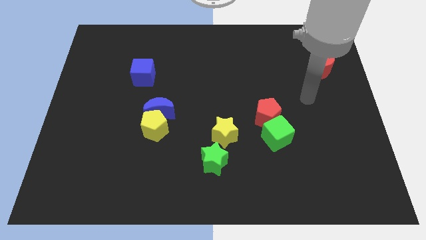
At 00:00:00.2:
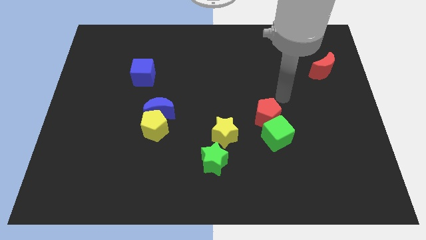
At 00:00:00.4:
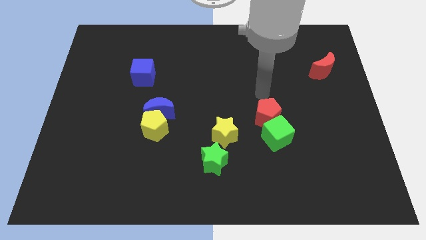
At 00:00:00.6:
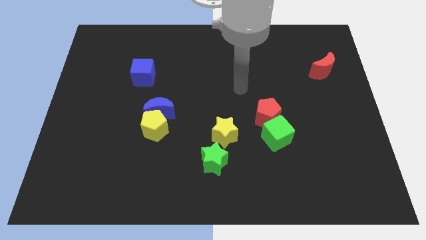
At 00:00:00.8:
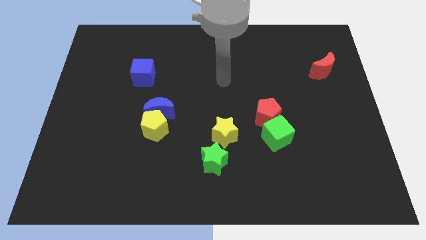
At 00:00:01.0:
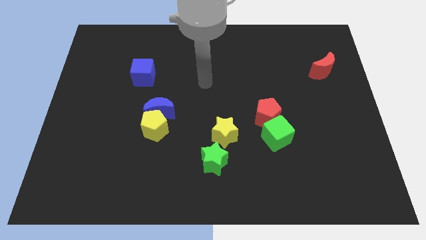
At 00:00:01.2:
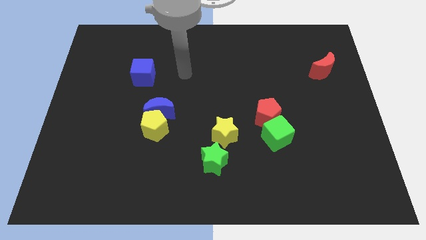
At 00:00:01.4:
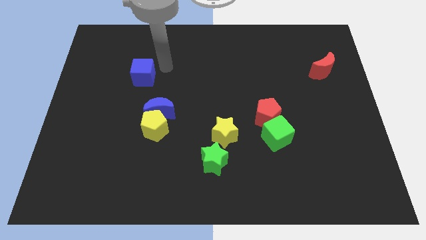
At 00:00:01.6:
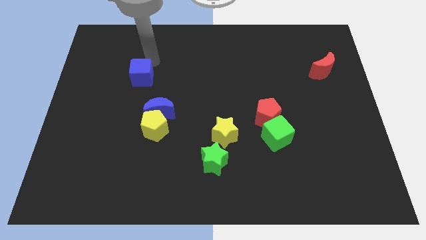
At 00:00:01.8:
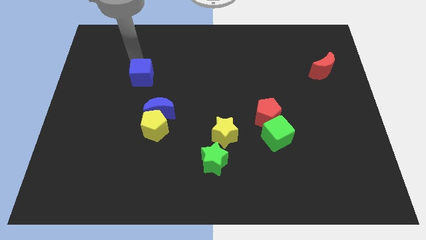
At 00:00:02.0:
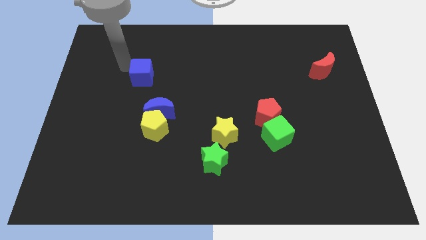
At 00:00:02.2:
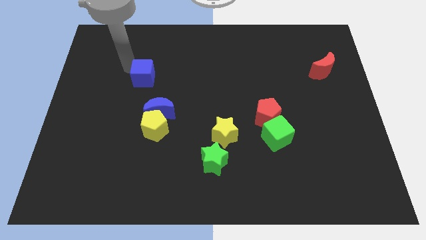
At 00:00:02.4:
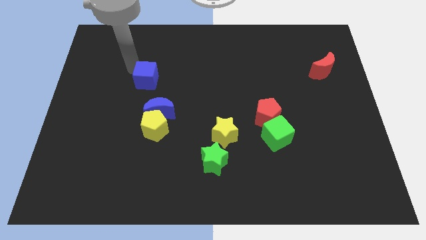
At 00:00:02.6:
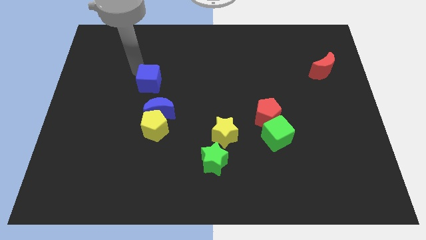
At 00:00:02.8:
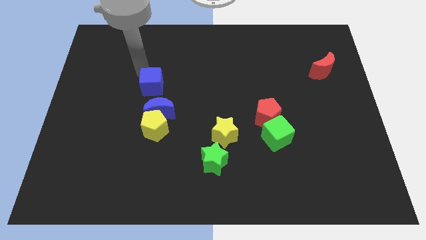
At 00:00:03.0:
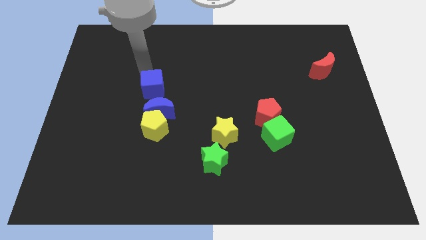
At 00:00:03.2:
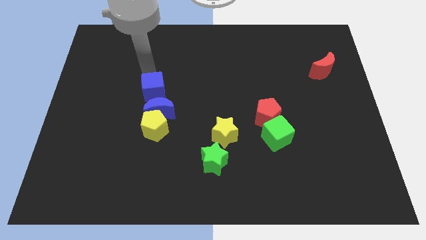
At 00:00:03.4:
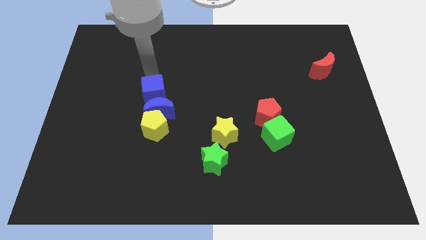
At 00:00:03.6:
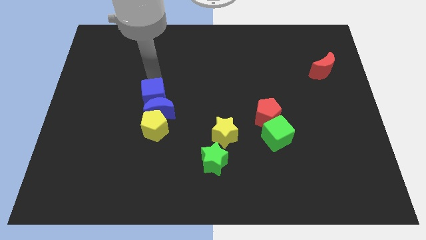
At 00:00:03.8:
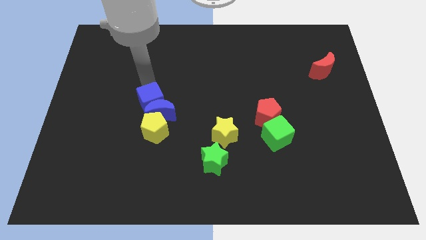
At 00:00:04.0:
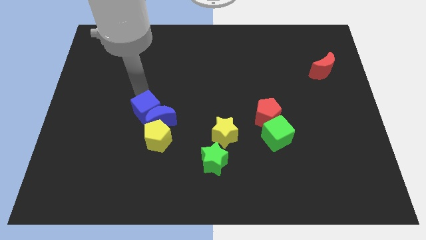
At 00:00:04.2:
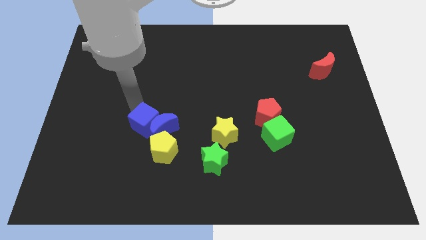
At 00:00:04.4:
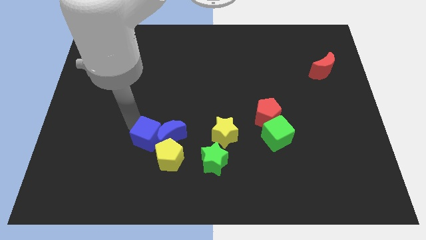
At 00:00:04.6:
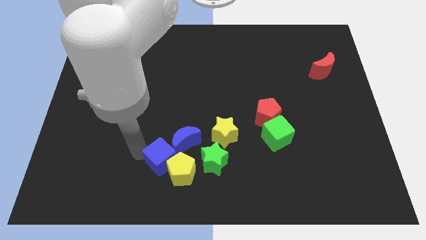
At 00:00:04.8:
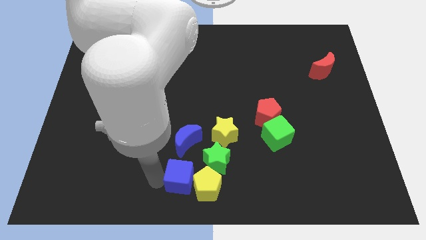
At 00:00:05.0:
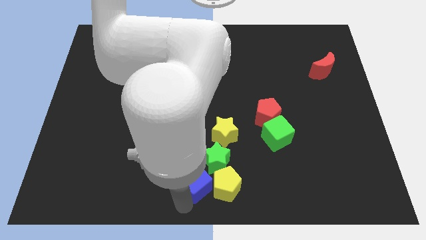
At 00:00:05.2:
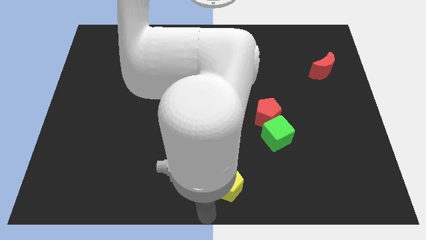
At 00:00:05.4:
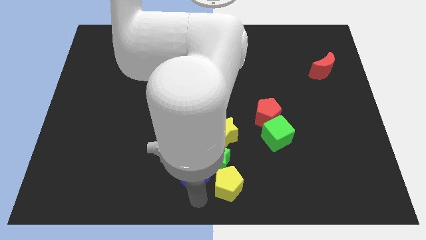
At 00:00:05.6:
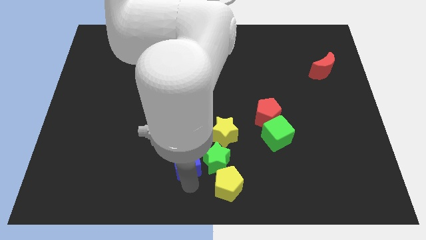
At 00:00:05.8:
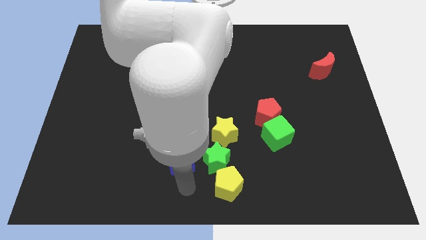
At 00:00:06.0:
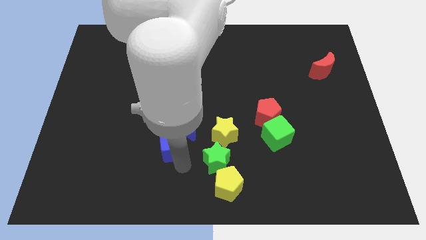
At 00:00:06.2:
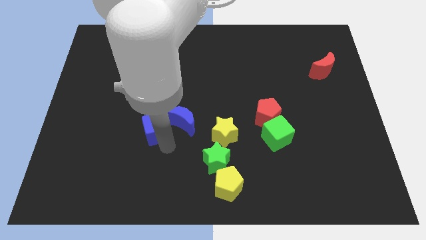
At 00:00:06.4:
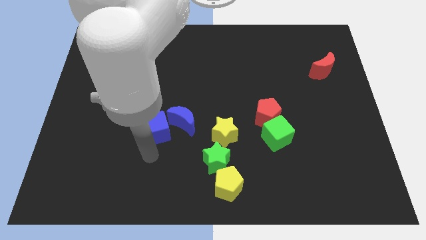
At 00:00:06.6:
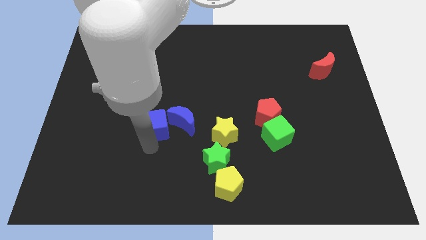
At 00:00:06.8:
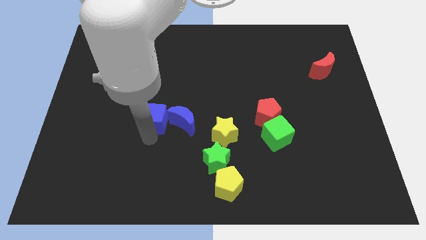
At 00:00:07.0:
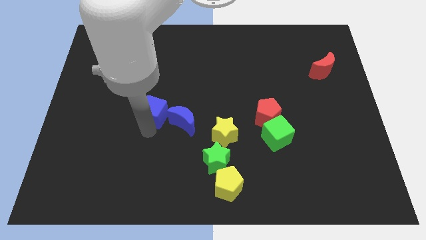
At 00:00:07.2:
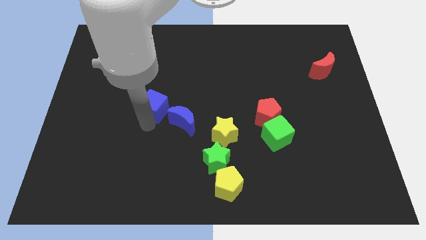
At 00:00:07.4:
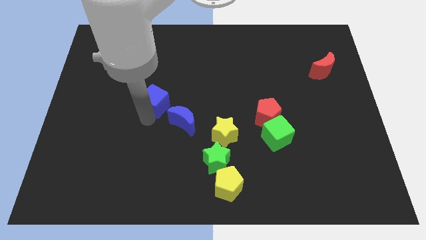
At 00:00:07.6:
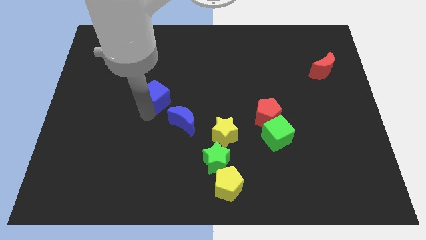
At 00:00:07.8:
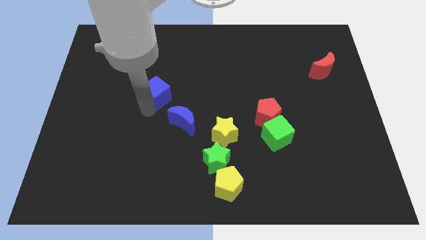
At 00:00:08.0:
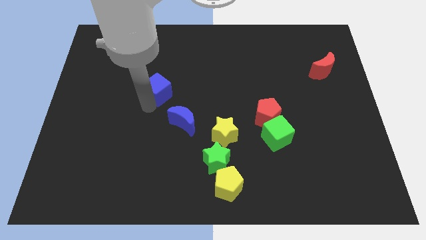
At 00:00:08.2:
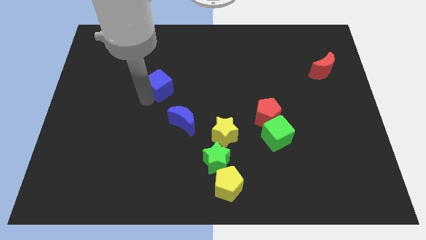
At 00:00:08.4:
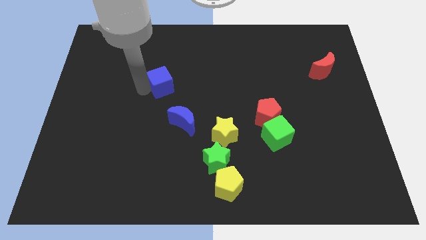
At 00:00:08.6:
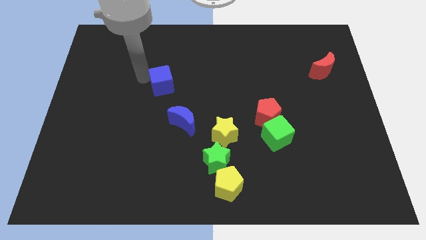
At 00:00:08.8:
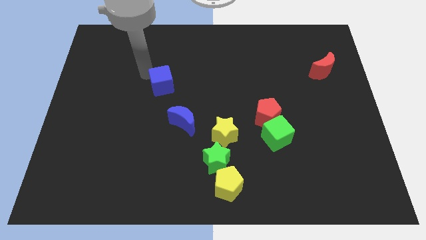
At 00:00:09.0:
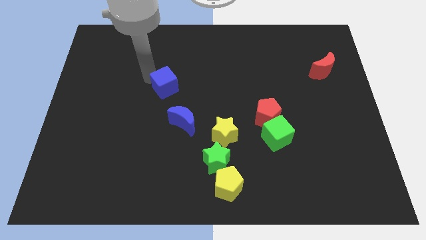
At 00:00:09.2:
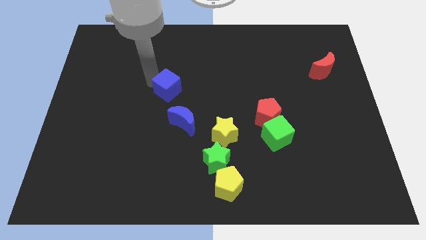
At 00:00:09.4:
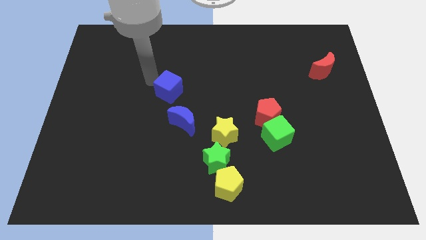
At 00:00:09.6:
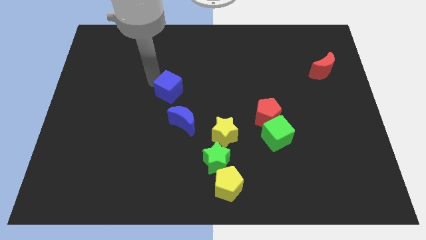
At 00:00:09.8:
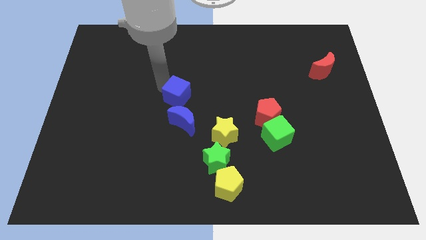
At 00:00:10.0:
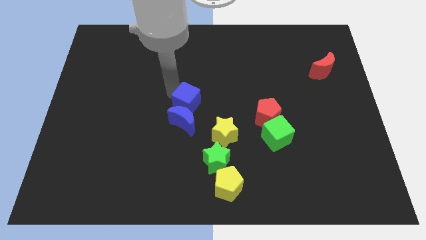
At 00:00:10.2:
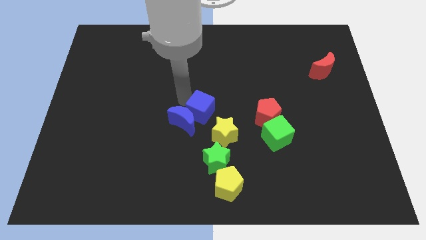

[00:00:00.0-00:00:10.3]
push the blue cube to the top side of the green star

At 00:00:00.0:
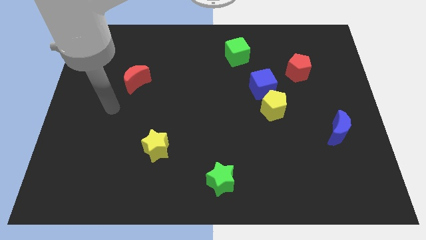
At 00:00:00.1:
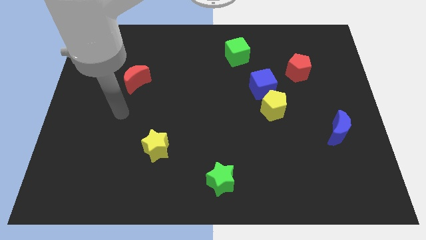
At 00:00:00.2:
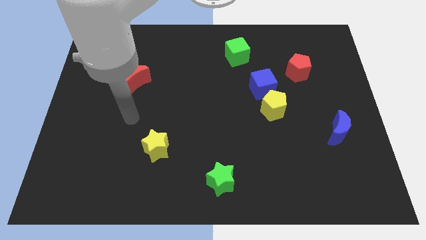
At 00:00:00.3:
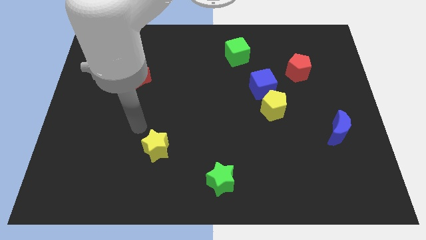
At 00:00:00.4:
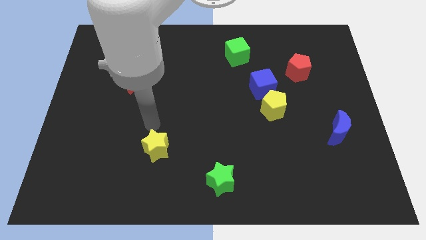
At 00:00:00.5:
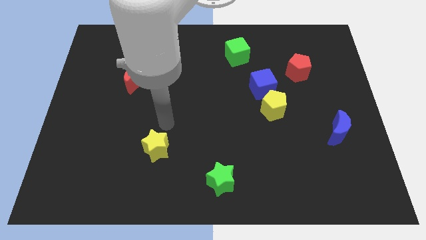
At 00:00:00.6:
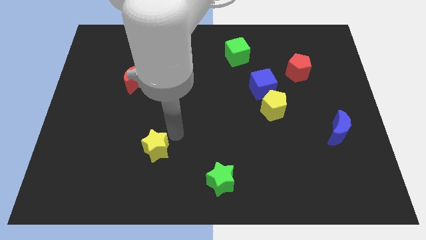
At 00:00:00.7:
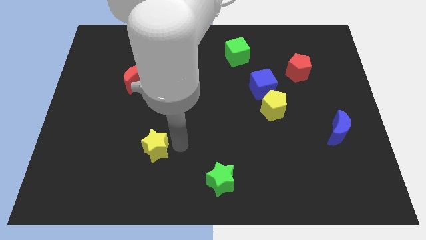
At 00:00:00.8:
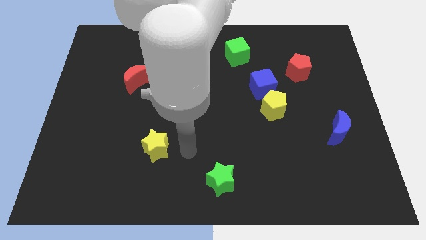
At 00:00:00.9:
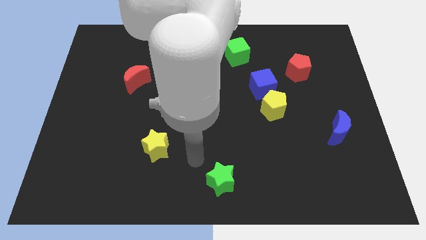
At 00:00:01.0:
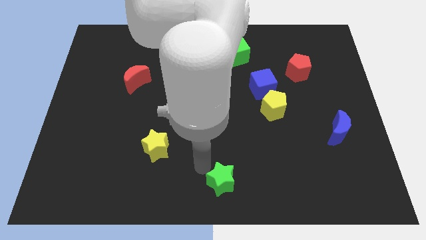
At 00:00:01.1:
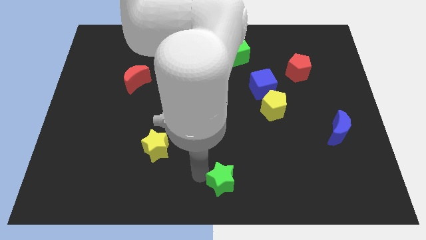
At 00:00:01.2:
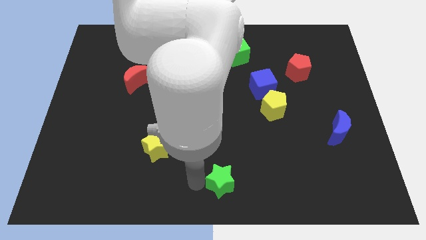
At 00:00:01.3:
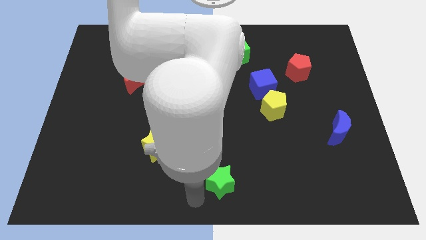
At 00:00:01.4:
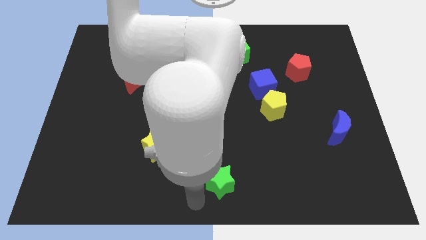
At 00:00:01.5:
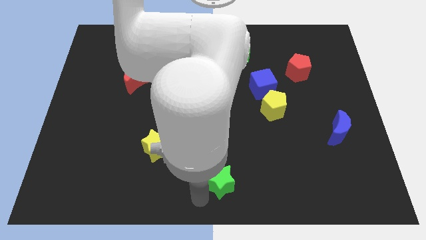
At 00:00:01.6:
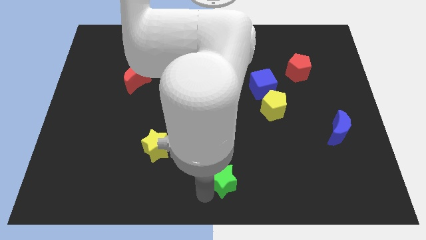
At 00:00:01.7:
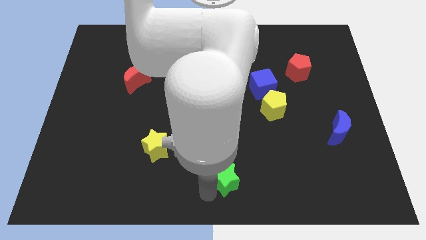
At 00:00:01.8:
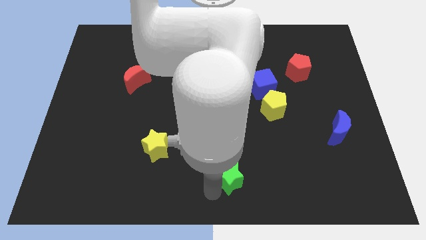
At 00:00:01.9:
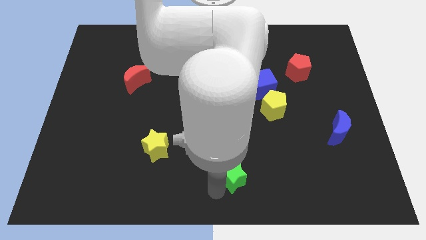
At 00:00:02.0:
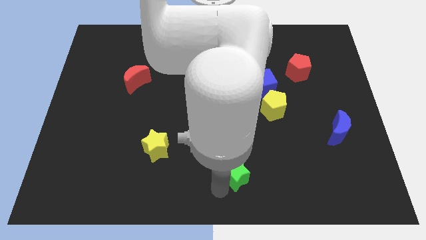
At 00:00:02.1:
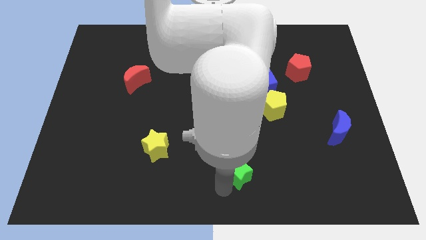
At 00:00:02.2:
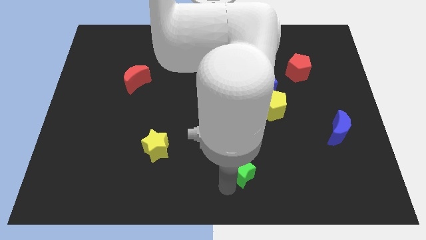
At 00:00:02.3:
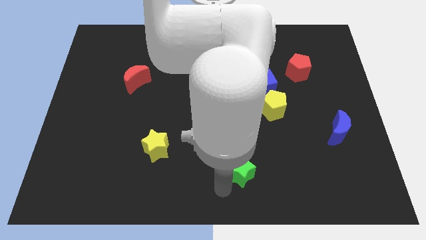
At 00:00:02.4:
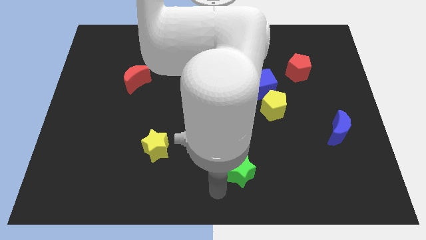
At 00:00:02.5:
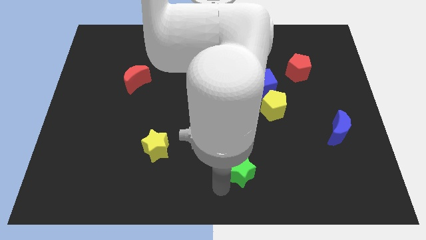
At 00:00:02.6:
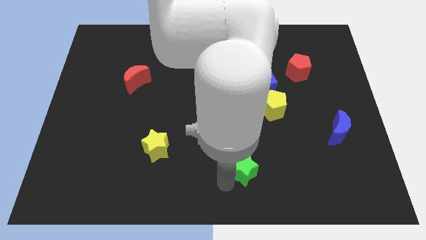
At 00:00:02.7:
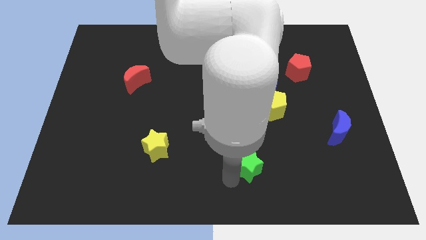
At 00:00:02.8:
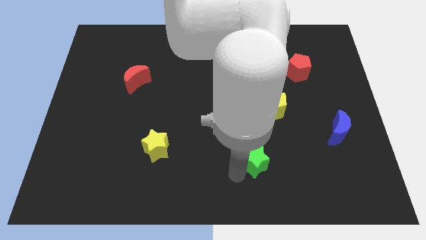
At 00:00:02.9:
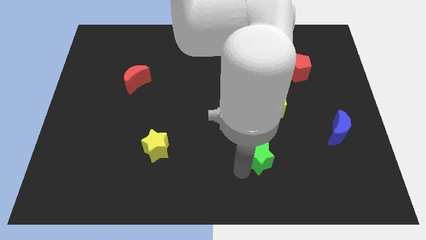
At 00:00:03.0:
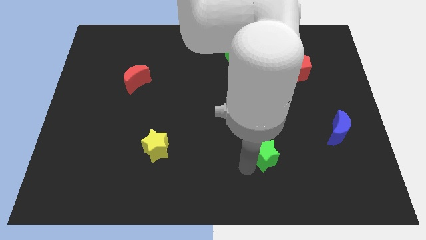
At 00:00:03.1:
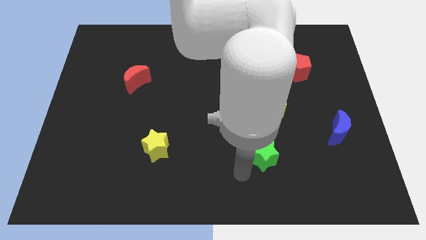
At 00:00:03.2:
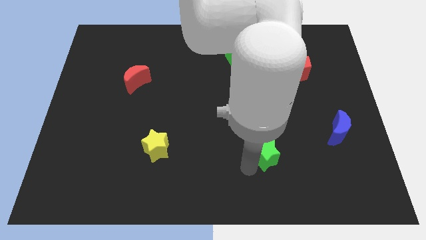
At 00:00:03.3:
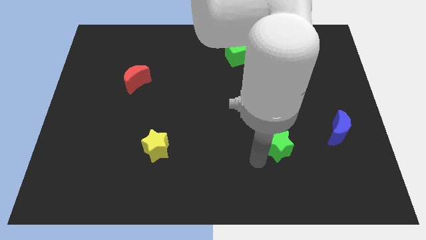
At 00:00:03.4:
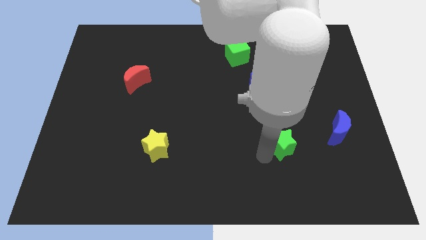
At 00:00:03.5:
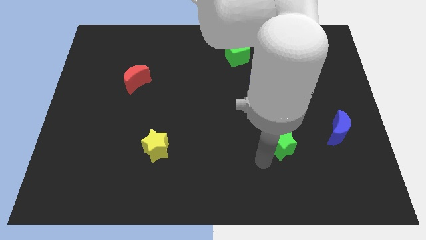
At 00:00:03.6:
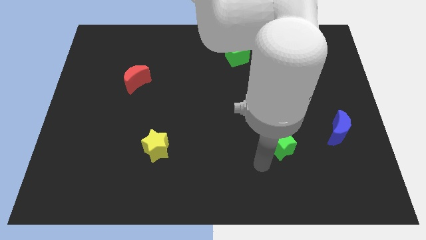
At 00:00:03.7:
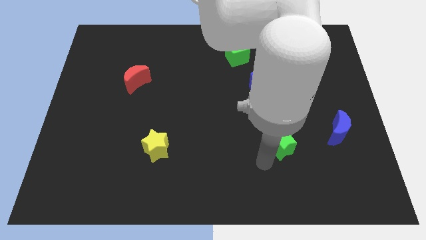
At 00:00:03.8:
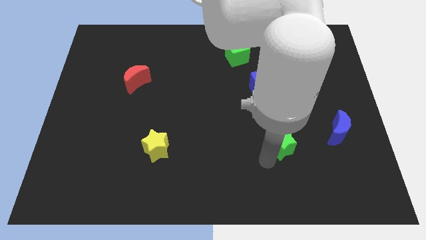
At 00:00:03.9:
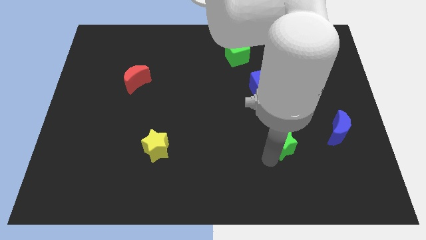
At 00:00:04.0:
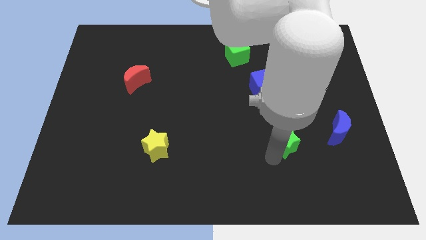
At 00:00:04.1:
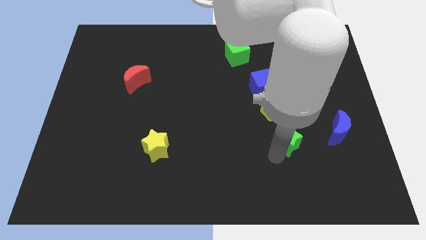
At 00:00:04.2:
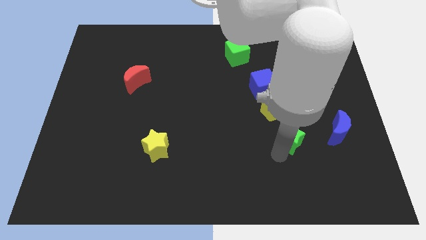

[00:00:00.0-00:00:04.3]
move the green star to the bottom right of the yellow pentagon
